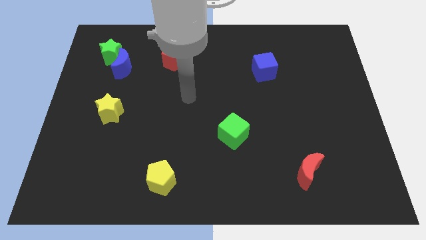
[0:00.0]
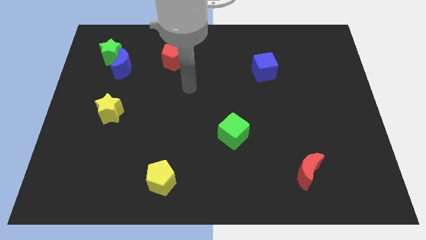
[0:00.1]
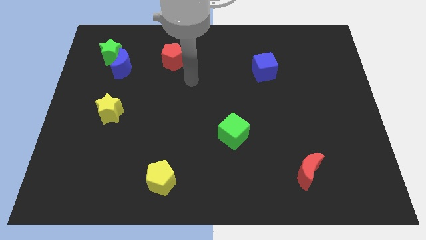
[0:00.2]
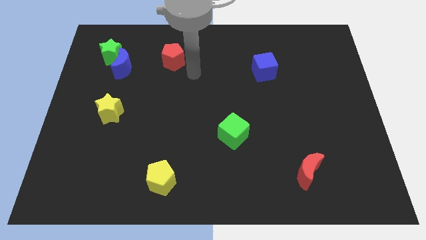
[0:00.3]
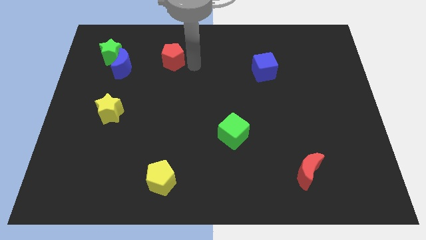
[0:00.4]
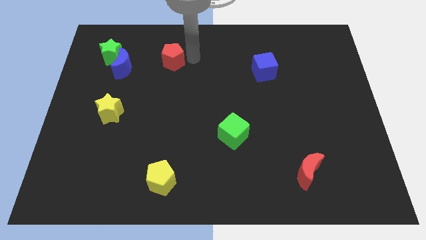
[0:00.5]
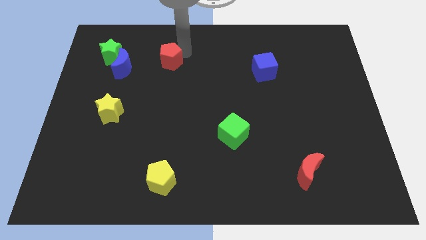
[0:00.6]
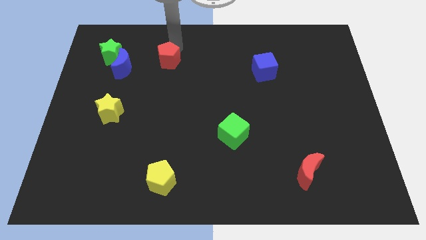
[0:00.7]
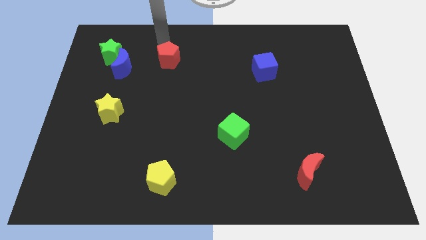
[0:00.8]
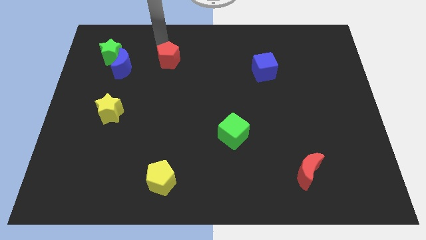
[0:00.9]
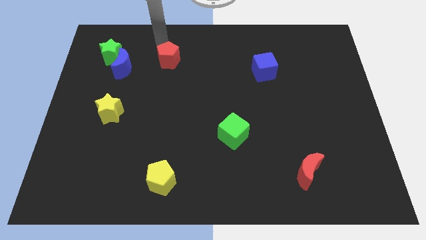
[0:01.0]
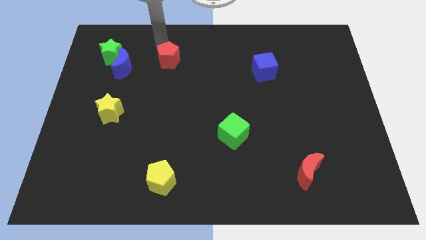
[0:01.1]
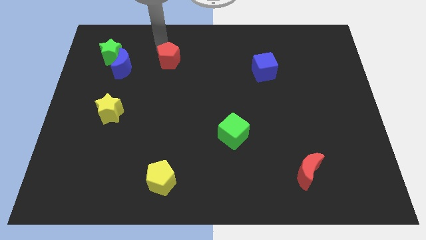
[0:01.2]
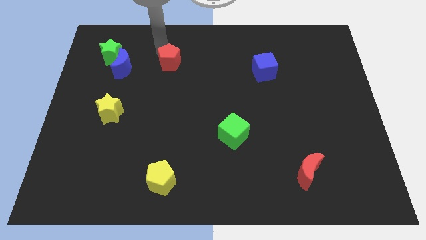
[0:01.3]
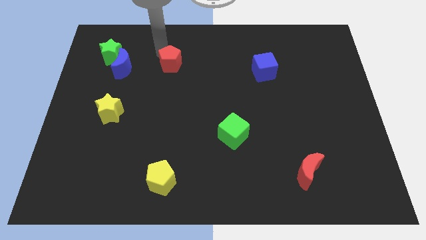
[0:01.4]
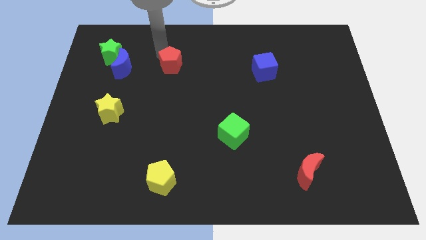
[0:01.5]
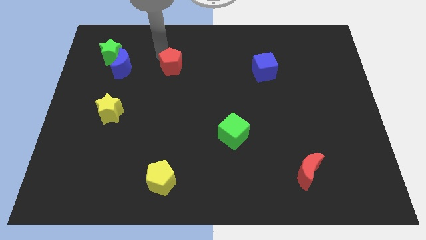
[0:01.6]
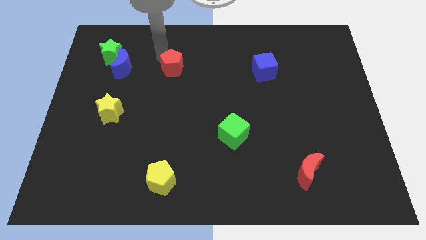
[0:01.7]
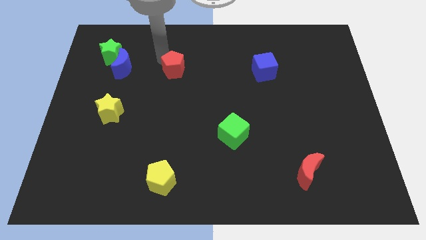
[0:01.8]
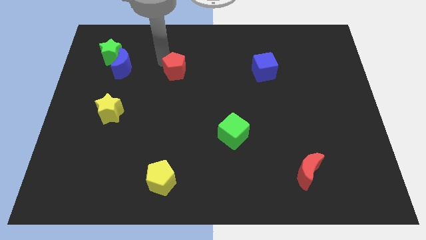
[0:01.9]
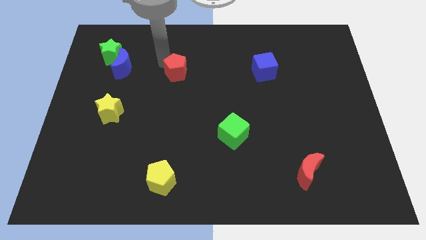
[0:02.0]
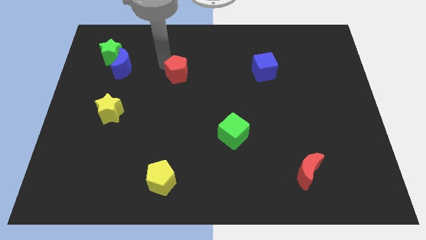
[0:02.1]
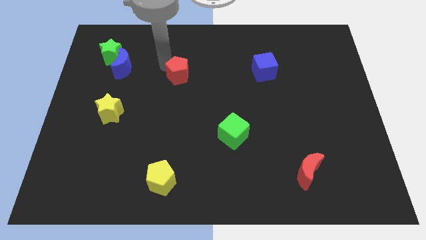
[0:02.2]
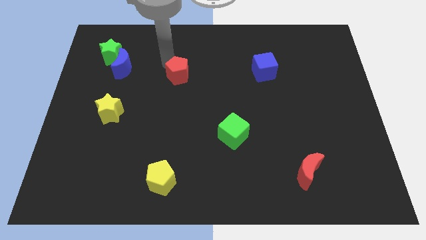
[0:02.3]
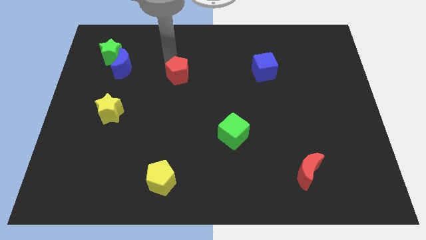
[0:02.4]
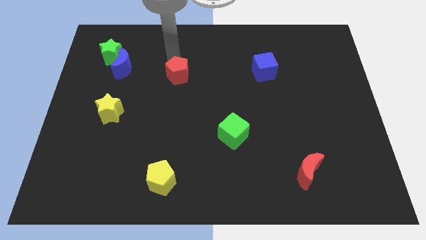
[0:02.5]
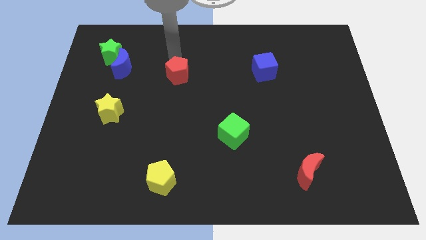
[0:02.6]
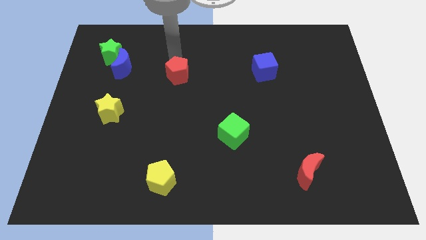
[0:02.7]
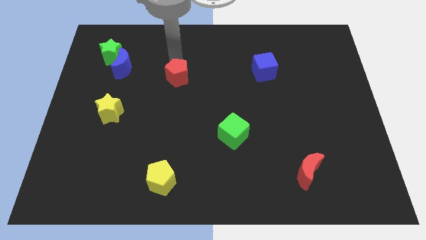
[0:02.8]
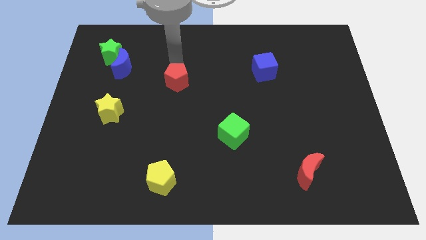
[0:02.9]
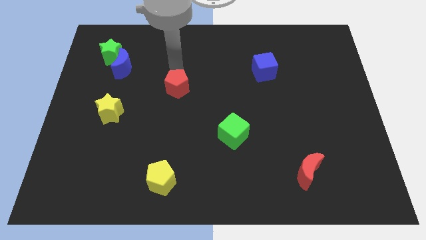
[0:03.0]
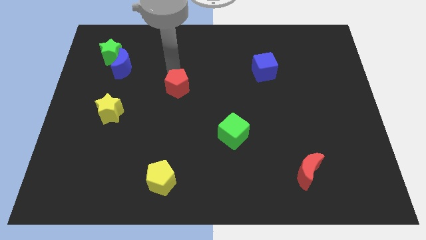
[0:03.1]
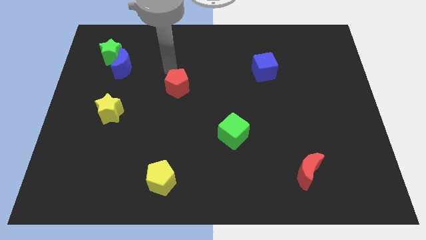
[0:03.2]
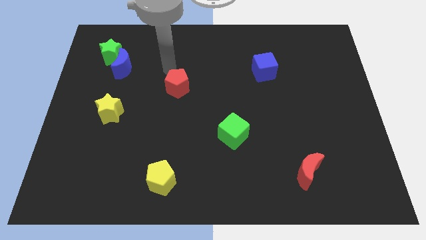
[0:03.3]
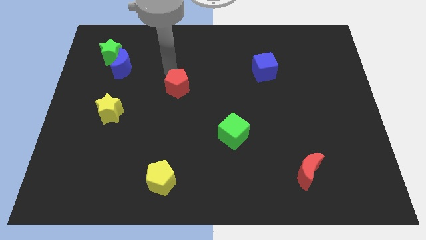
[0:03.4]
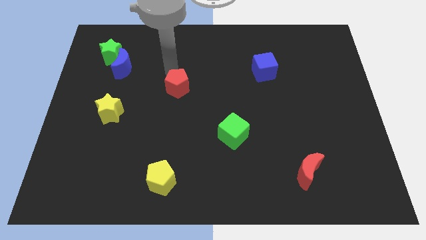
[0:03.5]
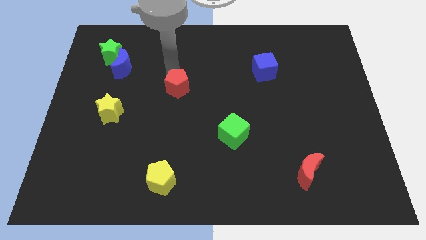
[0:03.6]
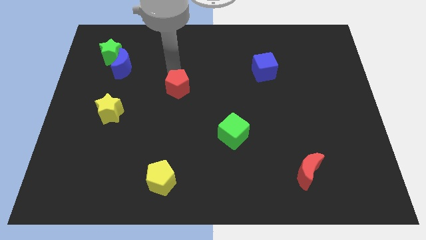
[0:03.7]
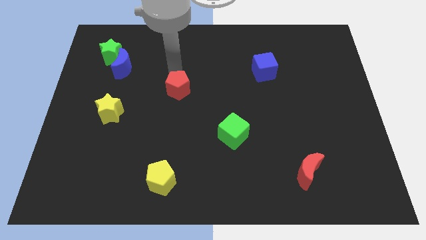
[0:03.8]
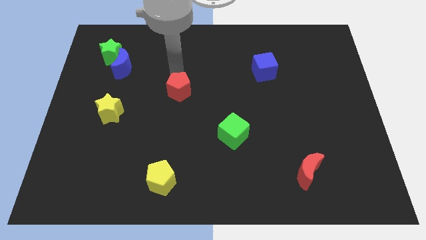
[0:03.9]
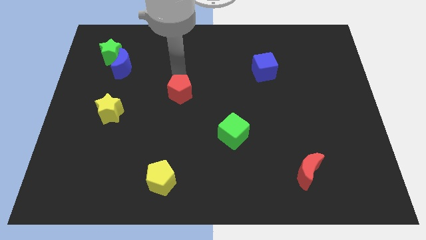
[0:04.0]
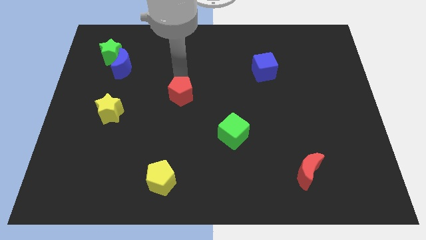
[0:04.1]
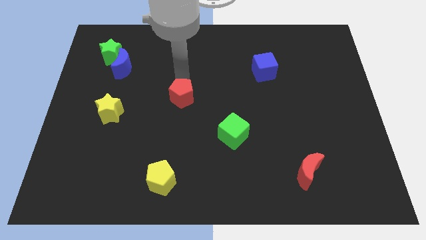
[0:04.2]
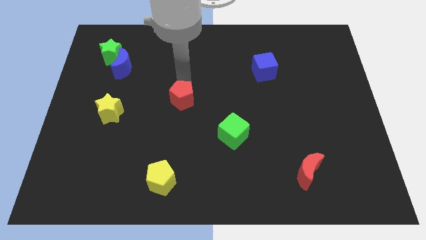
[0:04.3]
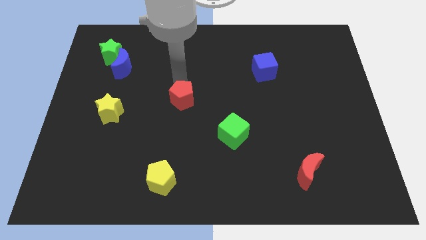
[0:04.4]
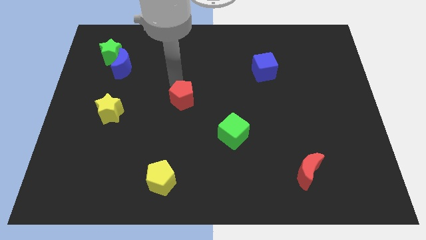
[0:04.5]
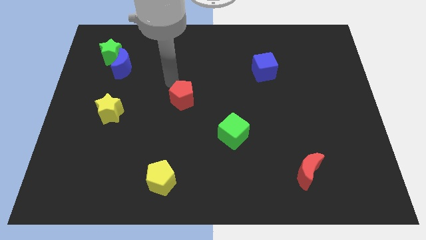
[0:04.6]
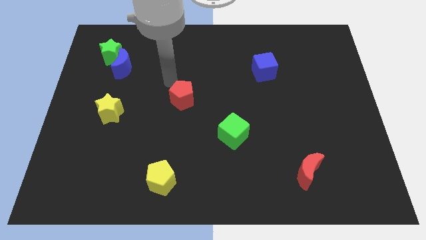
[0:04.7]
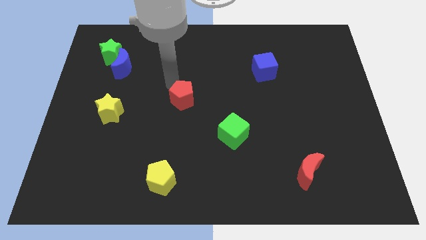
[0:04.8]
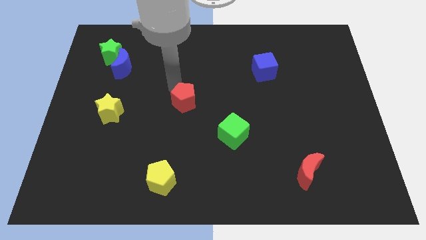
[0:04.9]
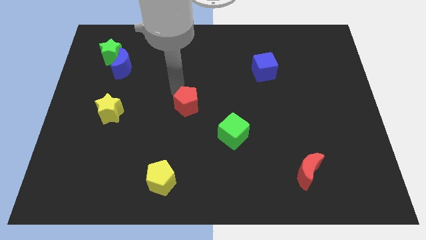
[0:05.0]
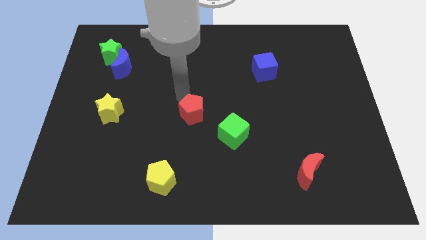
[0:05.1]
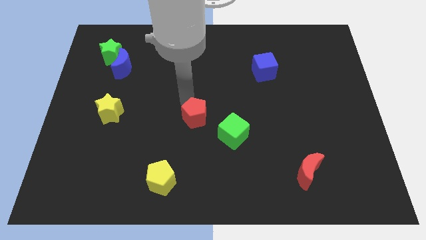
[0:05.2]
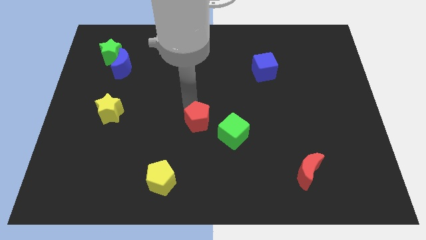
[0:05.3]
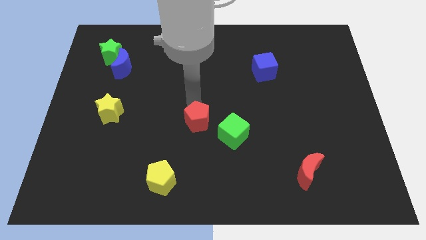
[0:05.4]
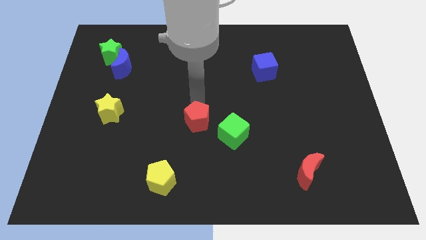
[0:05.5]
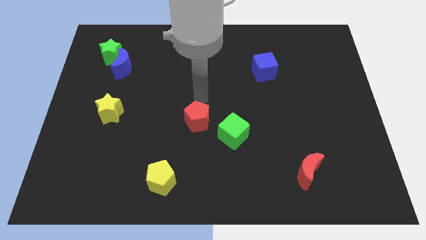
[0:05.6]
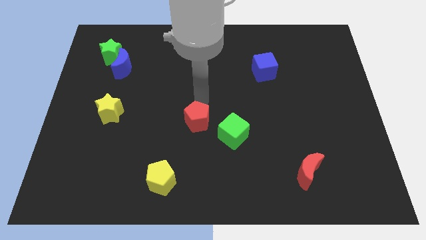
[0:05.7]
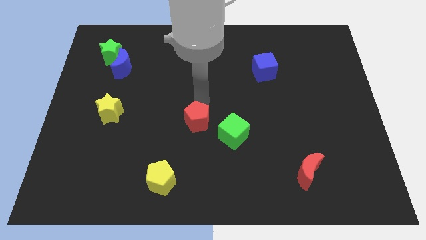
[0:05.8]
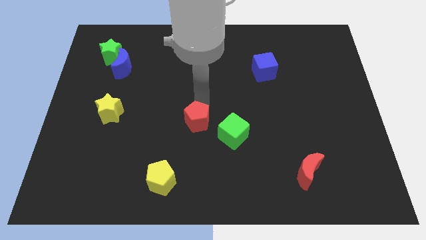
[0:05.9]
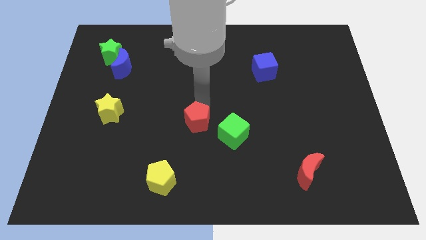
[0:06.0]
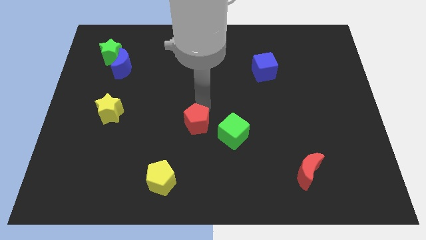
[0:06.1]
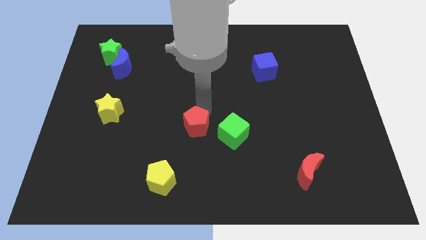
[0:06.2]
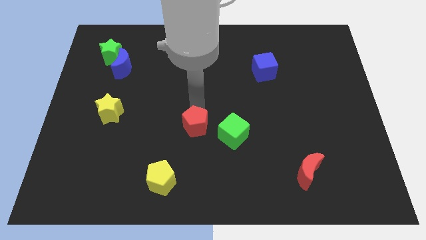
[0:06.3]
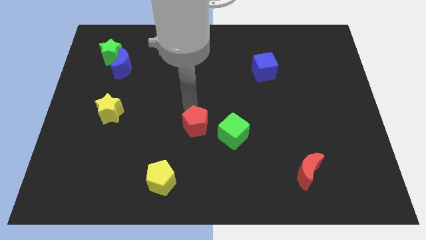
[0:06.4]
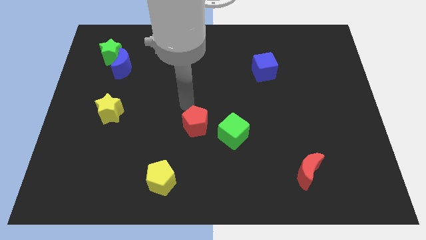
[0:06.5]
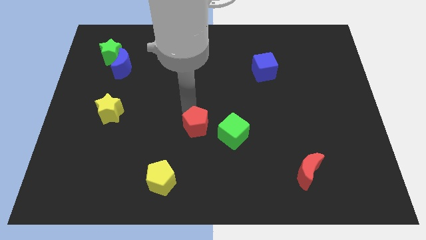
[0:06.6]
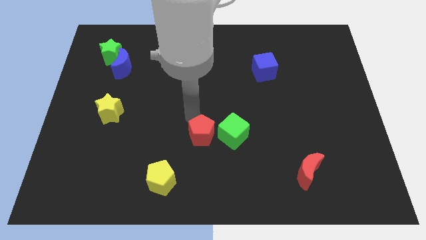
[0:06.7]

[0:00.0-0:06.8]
put the red pentagon to the bottom left side of the green cube
